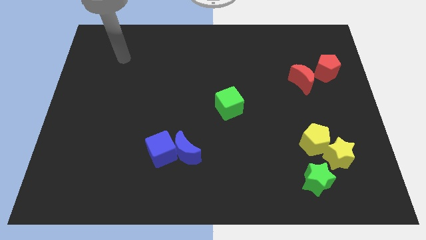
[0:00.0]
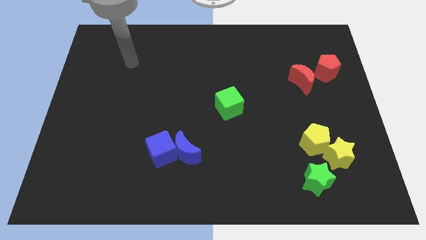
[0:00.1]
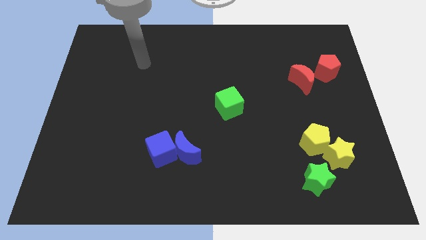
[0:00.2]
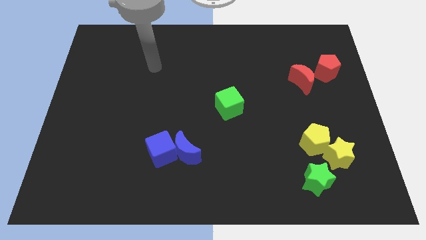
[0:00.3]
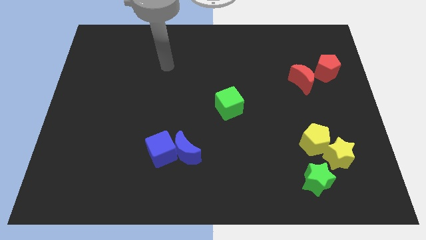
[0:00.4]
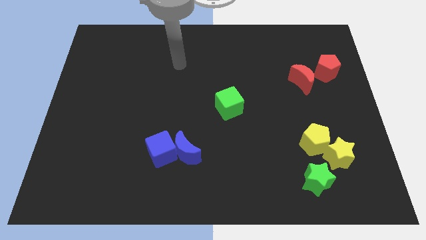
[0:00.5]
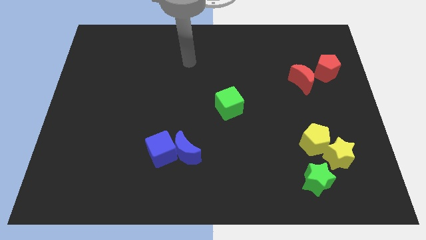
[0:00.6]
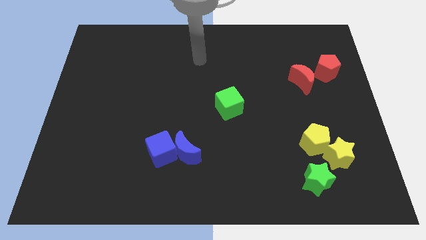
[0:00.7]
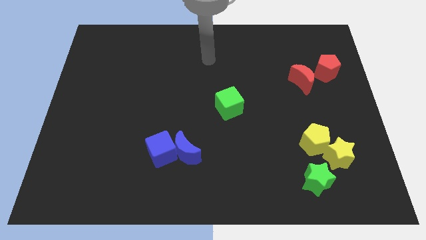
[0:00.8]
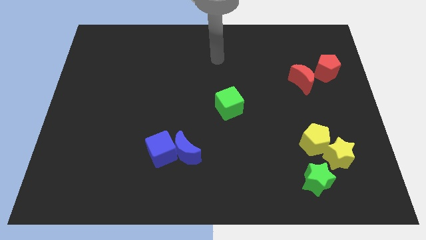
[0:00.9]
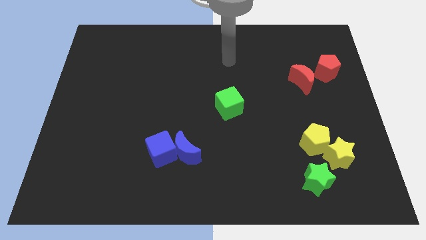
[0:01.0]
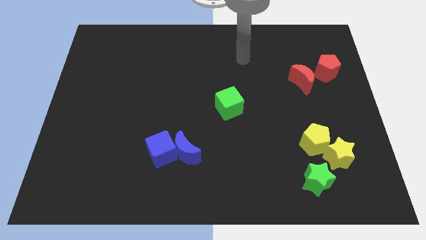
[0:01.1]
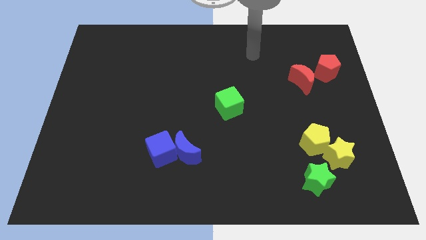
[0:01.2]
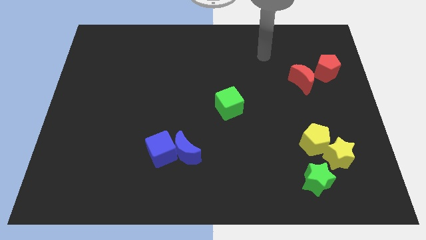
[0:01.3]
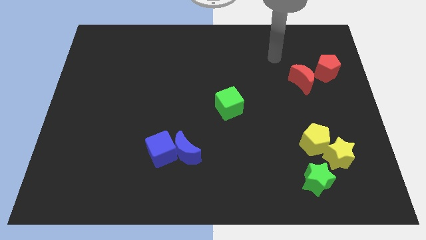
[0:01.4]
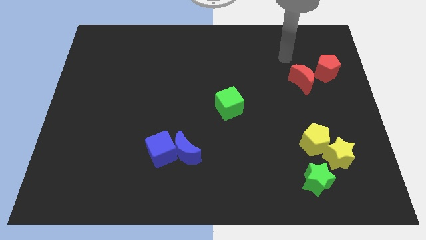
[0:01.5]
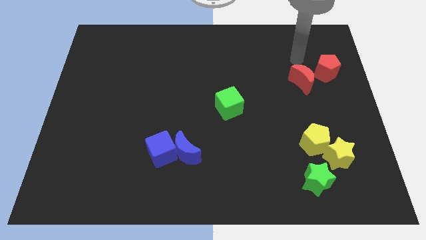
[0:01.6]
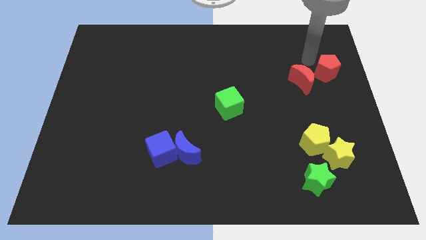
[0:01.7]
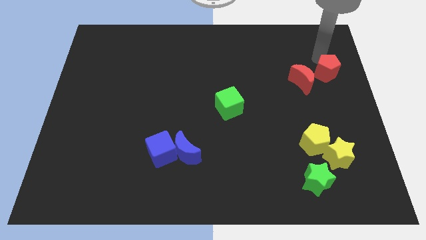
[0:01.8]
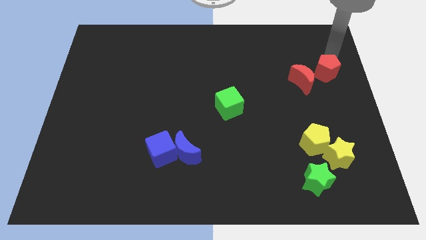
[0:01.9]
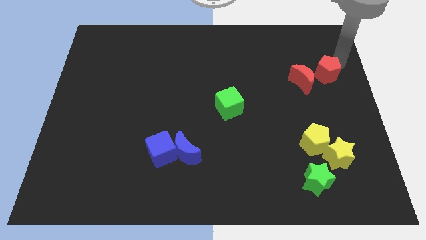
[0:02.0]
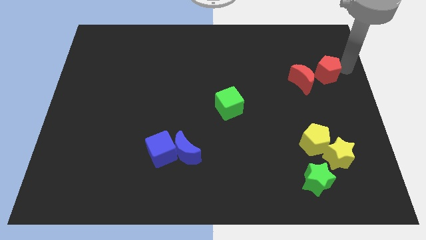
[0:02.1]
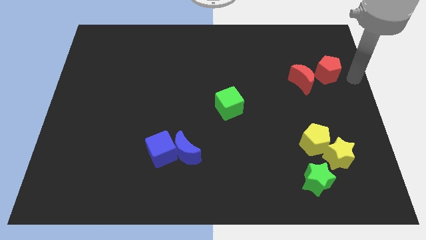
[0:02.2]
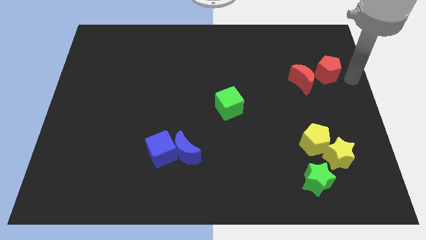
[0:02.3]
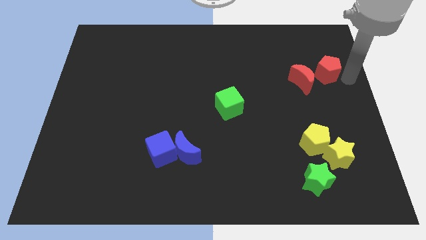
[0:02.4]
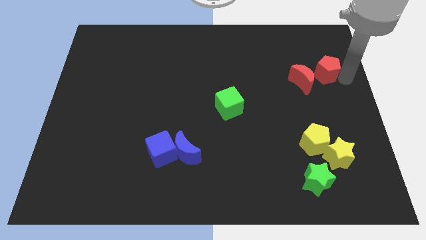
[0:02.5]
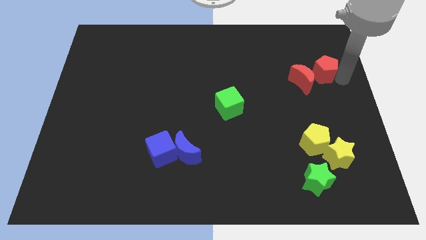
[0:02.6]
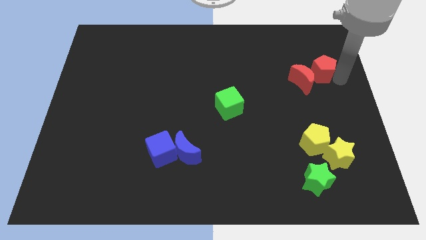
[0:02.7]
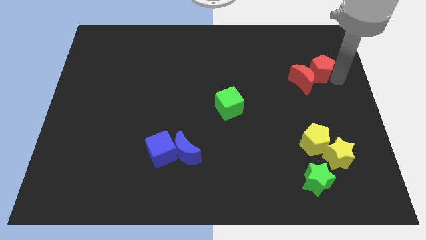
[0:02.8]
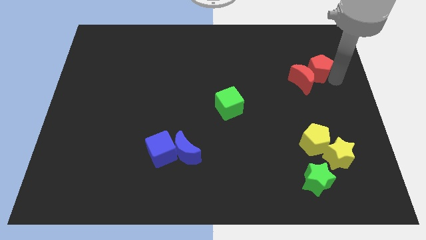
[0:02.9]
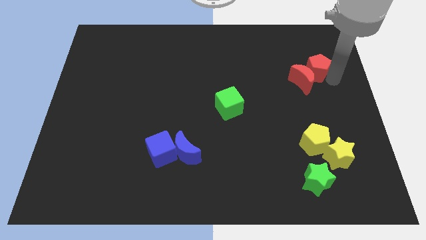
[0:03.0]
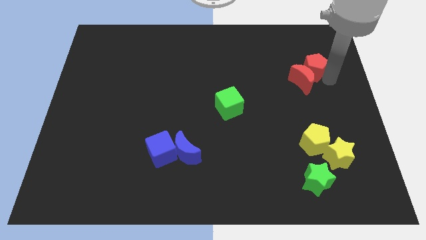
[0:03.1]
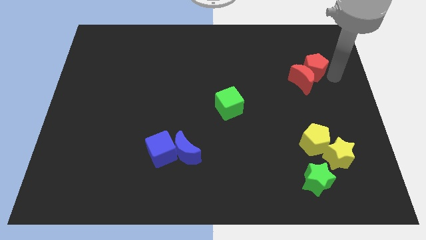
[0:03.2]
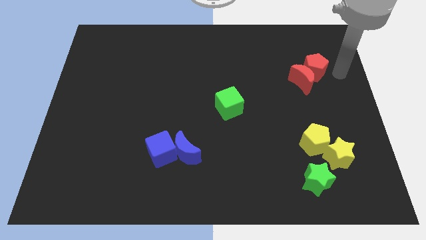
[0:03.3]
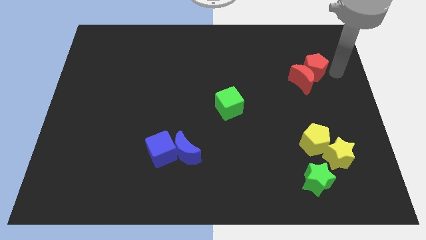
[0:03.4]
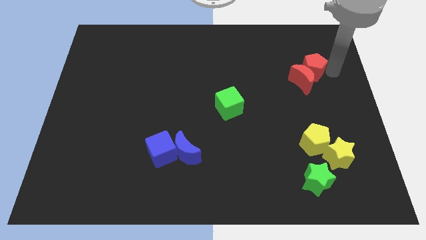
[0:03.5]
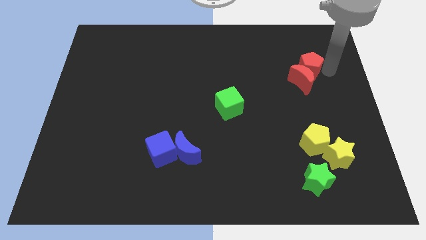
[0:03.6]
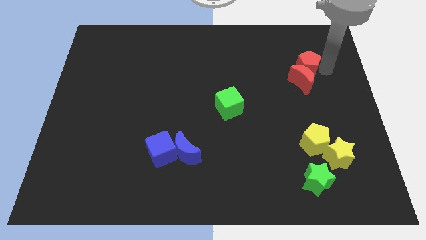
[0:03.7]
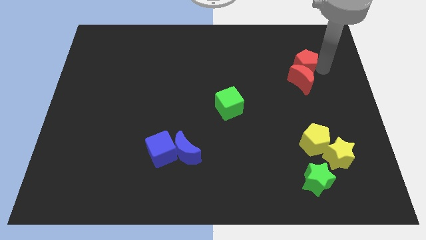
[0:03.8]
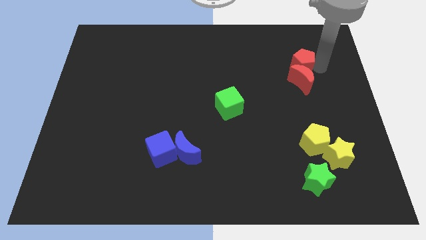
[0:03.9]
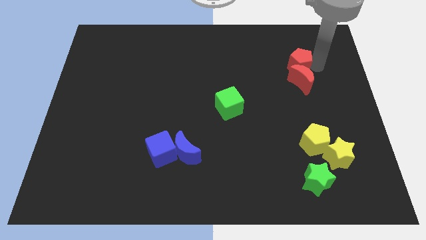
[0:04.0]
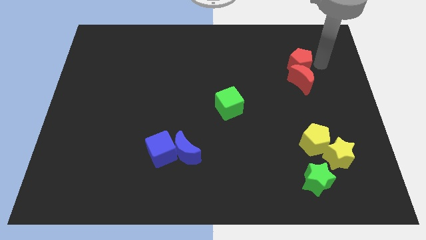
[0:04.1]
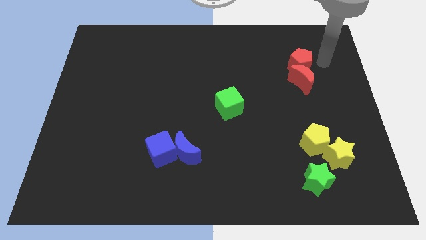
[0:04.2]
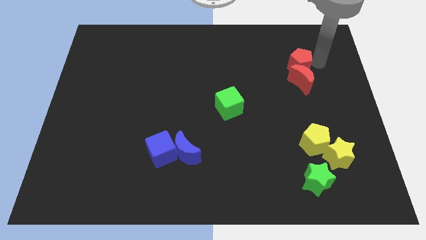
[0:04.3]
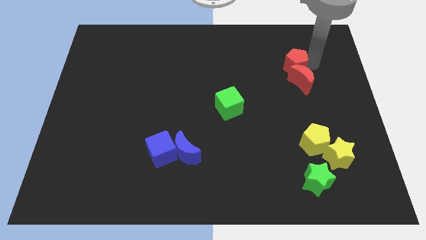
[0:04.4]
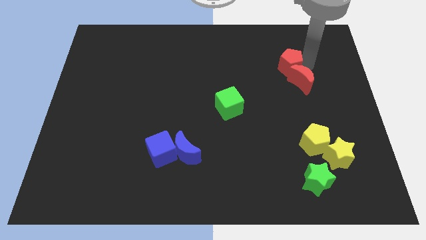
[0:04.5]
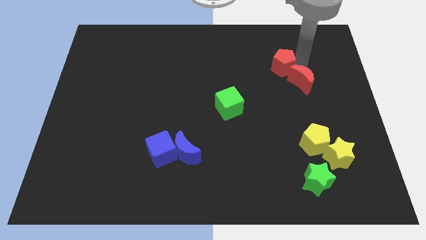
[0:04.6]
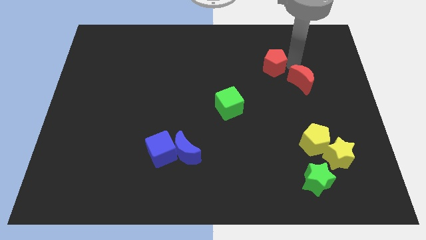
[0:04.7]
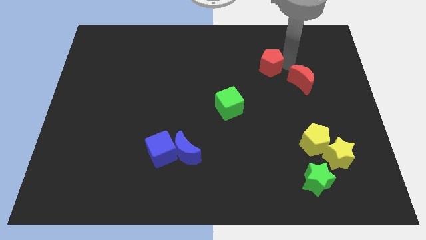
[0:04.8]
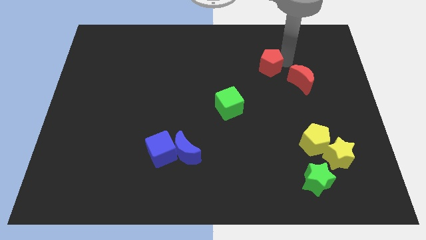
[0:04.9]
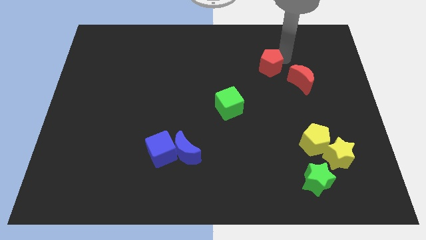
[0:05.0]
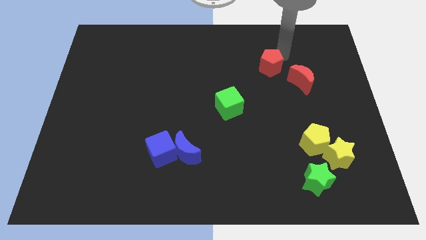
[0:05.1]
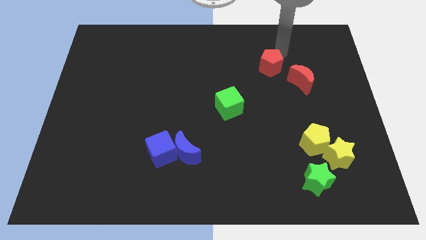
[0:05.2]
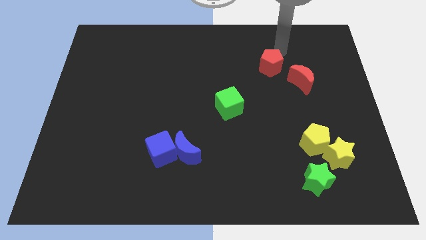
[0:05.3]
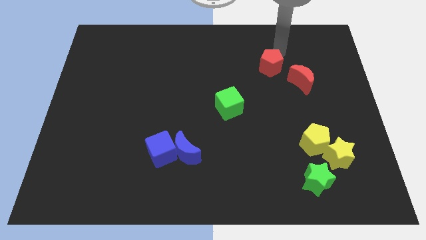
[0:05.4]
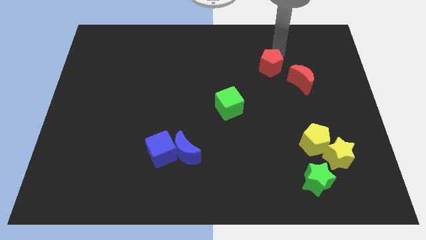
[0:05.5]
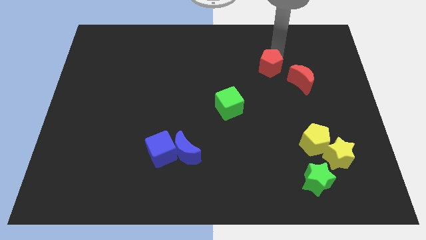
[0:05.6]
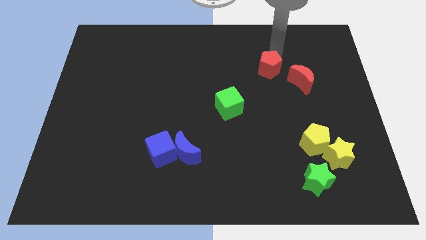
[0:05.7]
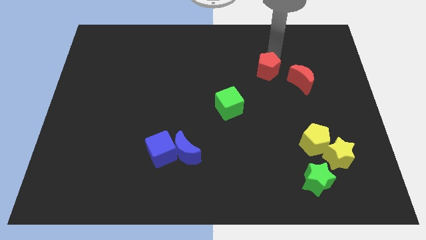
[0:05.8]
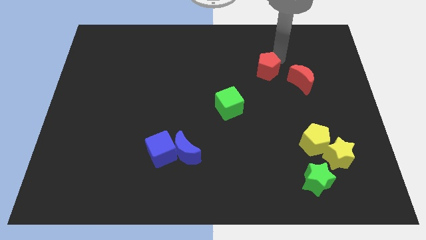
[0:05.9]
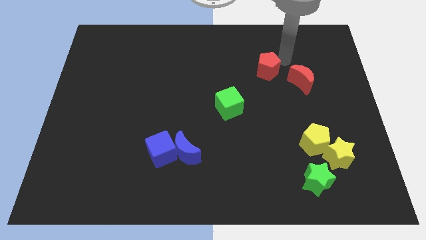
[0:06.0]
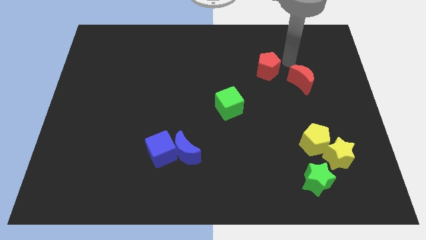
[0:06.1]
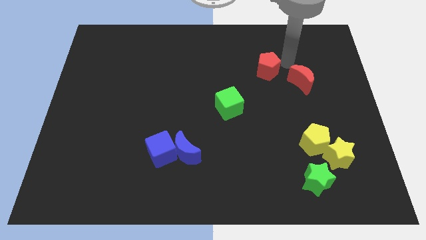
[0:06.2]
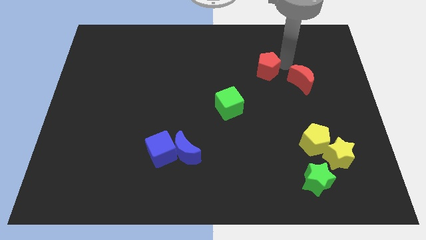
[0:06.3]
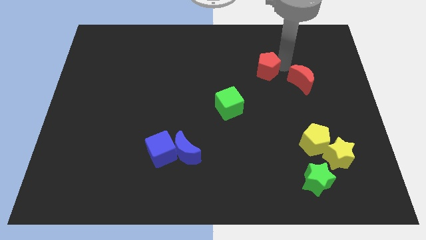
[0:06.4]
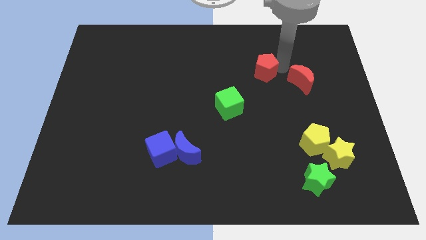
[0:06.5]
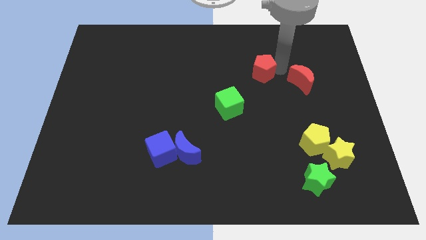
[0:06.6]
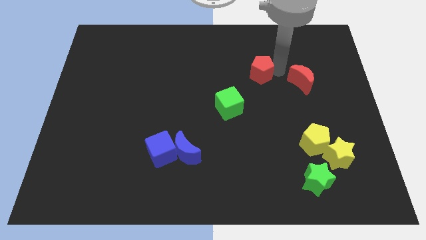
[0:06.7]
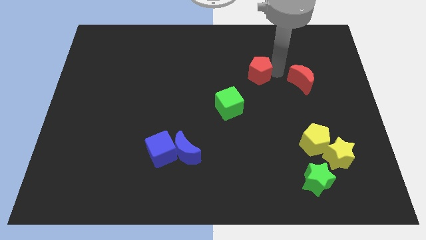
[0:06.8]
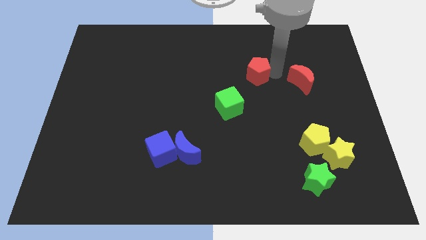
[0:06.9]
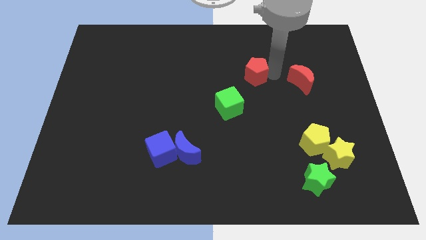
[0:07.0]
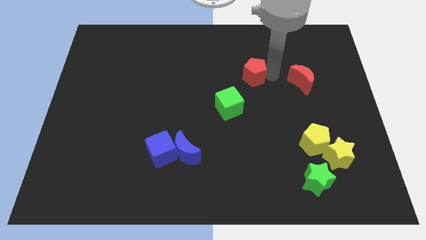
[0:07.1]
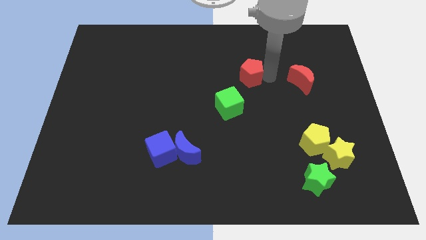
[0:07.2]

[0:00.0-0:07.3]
move the red pentagon to the middle

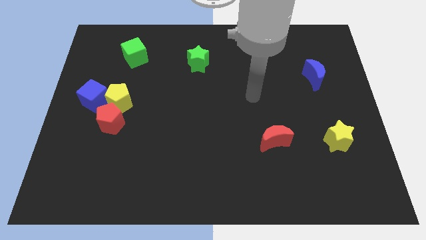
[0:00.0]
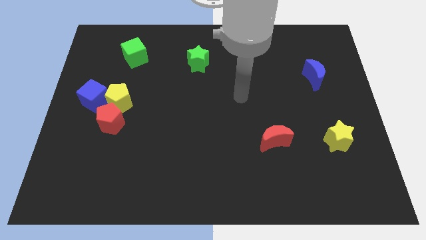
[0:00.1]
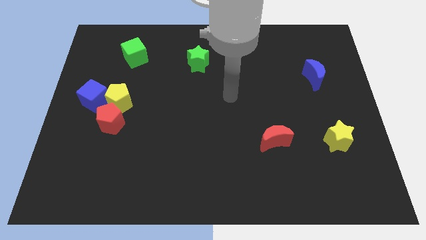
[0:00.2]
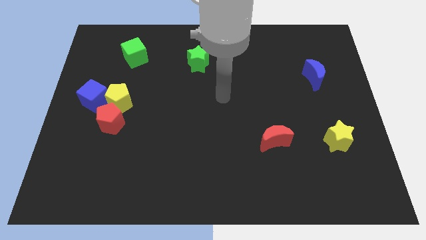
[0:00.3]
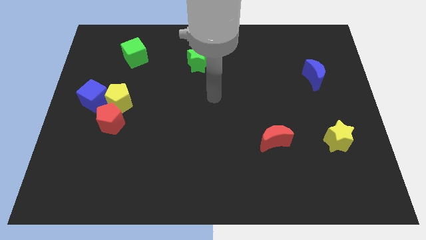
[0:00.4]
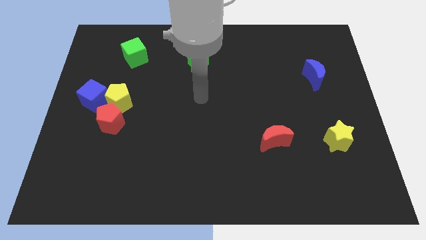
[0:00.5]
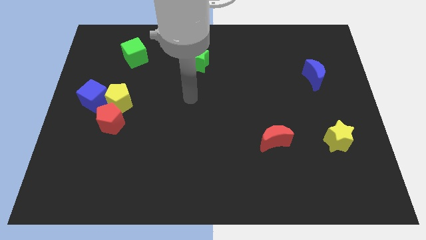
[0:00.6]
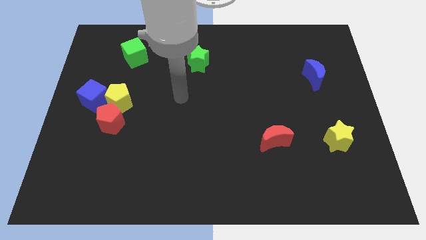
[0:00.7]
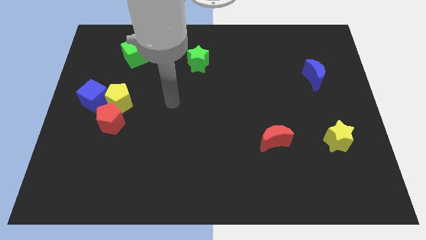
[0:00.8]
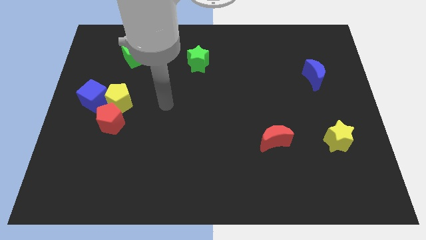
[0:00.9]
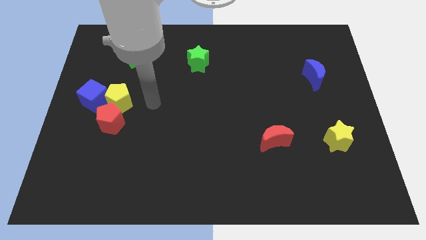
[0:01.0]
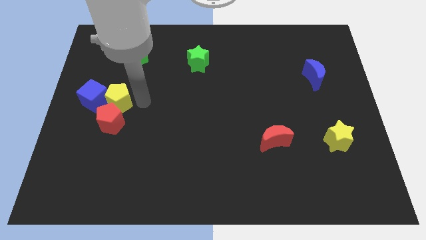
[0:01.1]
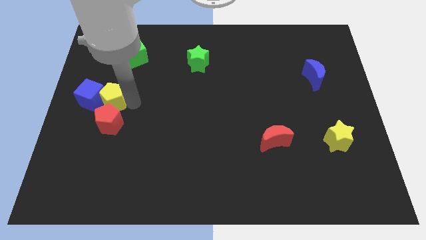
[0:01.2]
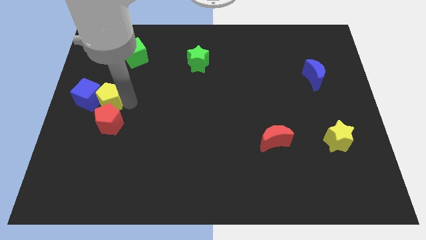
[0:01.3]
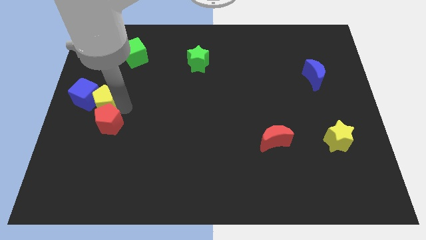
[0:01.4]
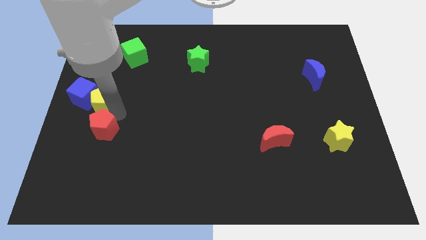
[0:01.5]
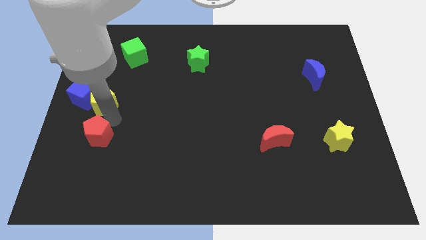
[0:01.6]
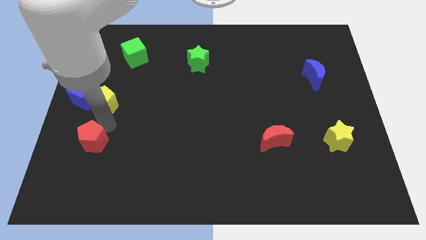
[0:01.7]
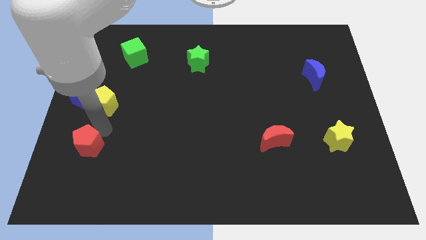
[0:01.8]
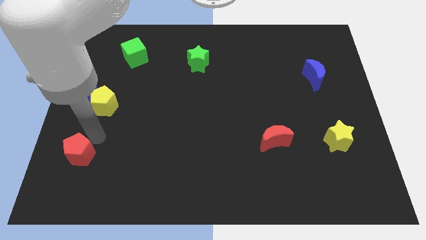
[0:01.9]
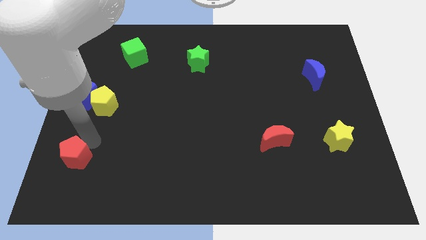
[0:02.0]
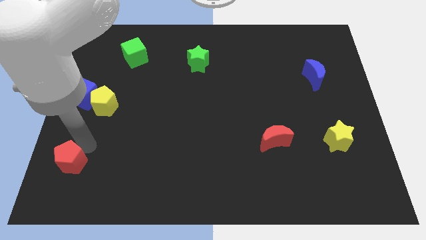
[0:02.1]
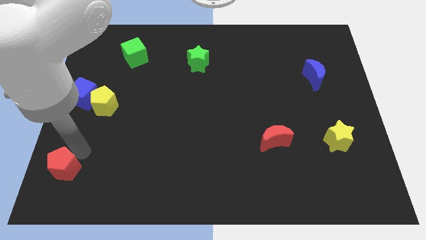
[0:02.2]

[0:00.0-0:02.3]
slide the red pentagon to the bottom left
